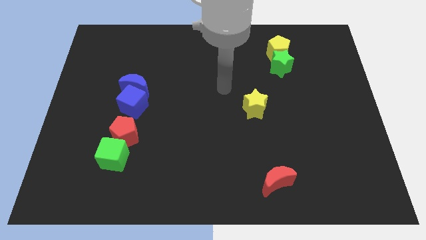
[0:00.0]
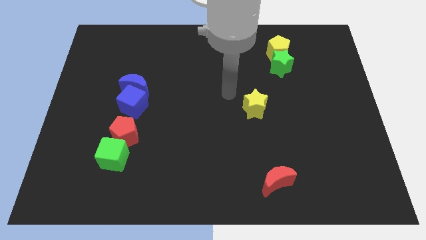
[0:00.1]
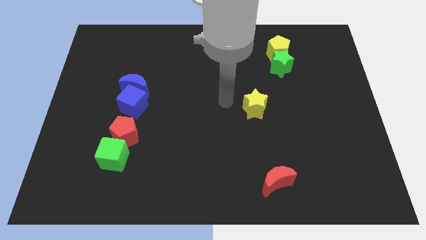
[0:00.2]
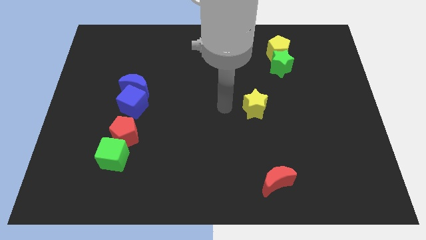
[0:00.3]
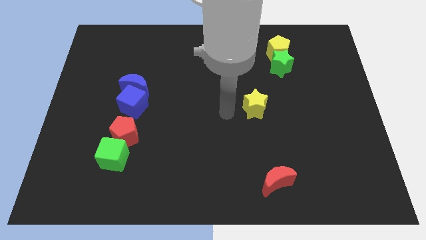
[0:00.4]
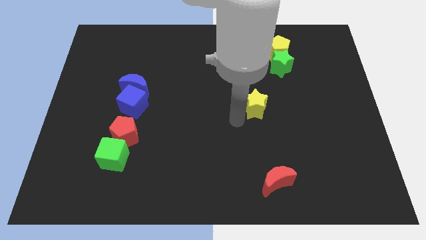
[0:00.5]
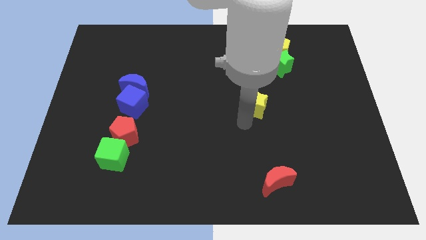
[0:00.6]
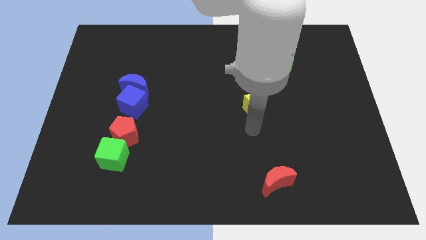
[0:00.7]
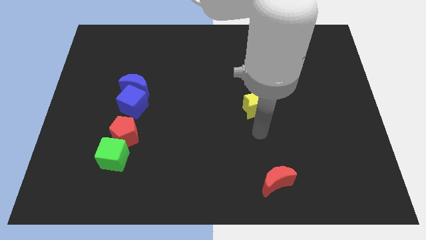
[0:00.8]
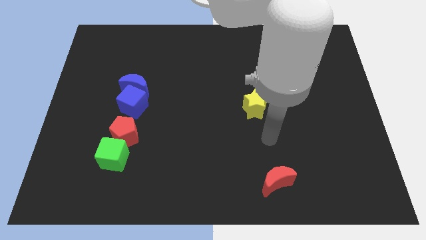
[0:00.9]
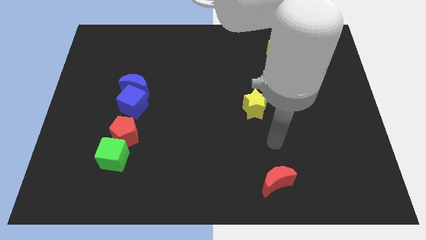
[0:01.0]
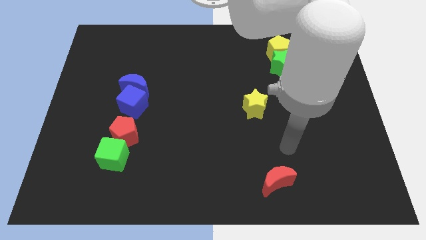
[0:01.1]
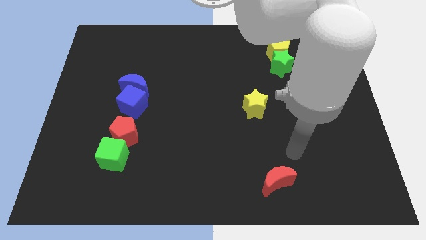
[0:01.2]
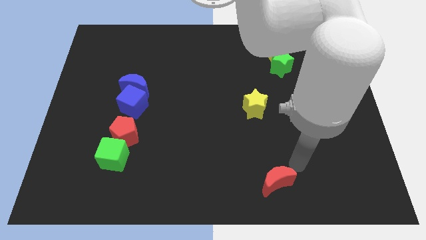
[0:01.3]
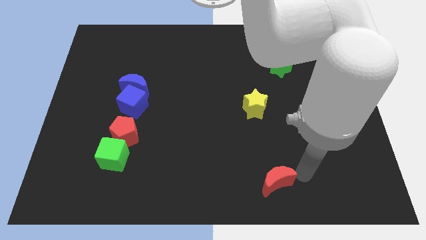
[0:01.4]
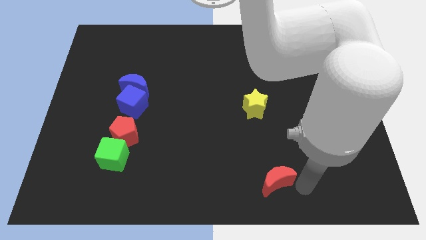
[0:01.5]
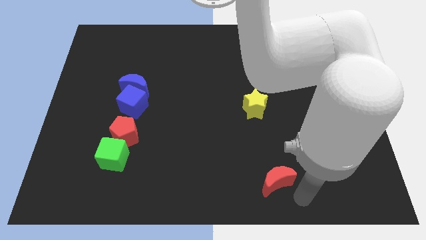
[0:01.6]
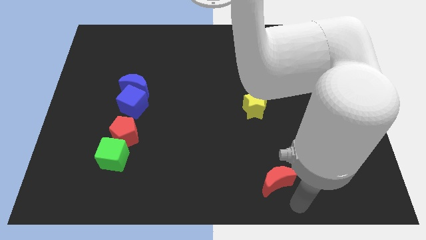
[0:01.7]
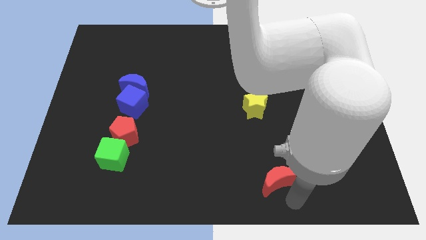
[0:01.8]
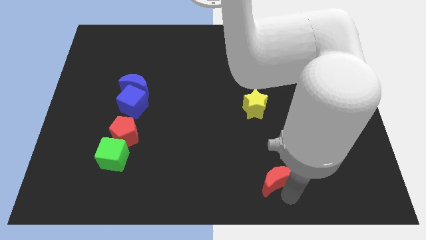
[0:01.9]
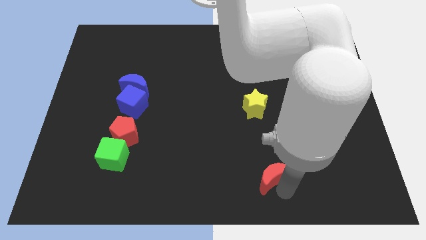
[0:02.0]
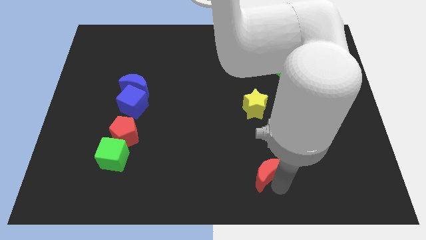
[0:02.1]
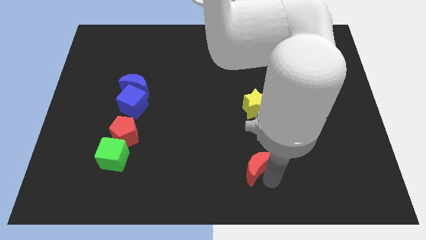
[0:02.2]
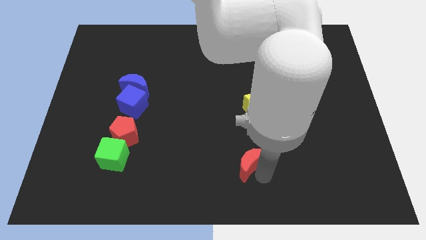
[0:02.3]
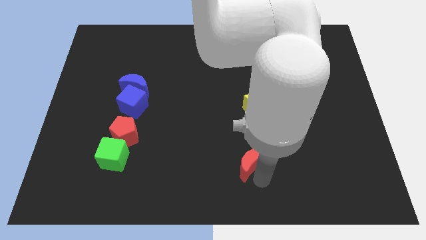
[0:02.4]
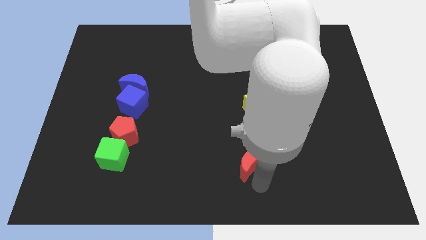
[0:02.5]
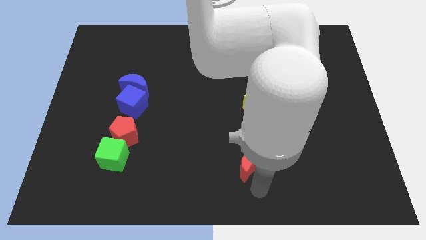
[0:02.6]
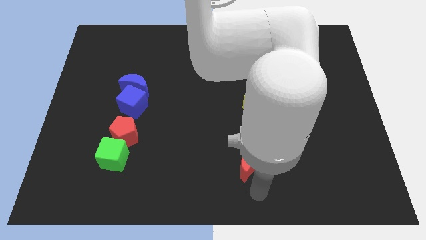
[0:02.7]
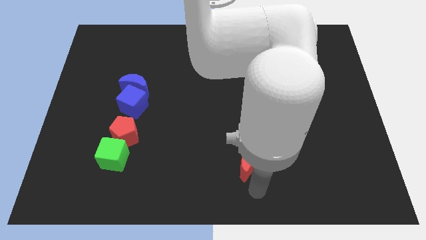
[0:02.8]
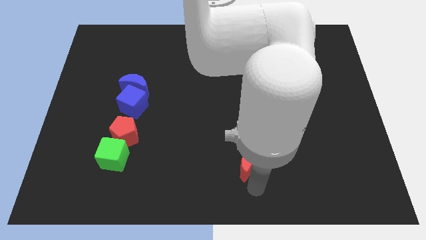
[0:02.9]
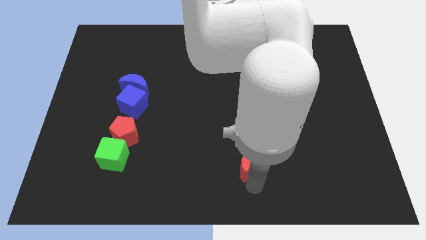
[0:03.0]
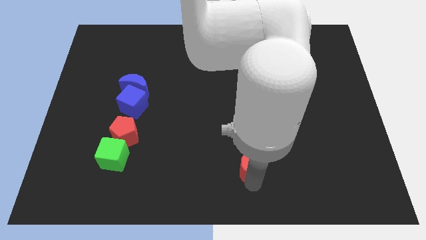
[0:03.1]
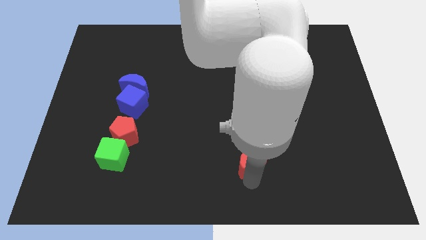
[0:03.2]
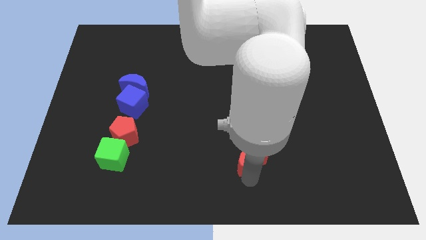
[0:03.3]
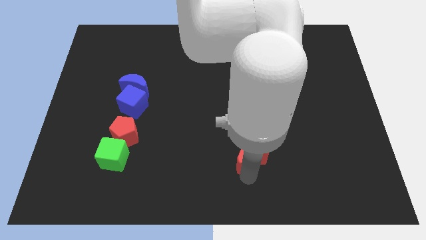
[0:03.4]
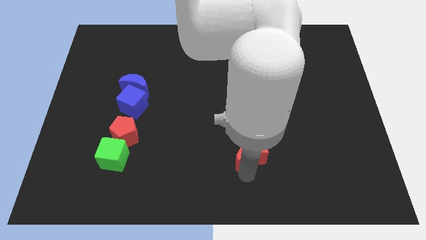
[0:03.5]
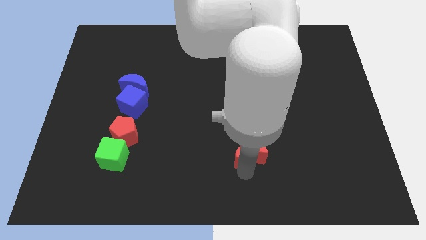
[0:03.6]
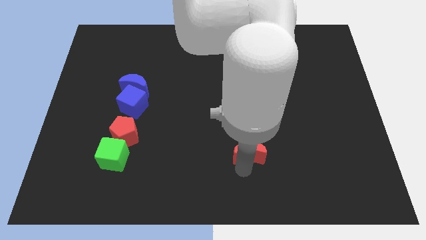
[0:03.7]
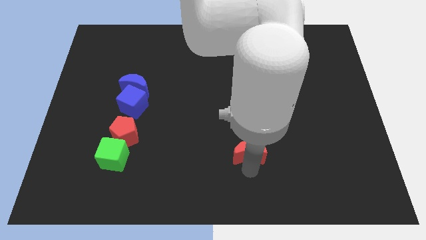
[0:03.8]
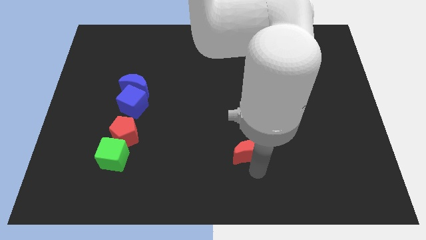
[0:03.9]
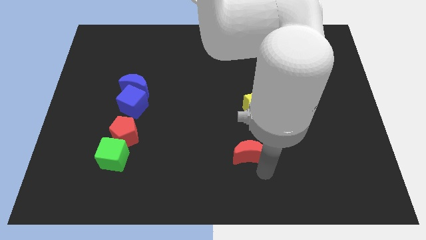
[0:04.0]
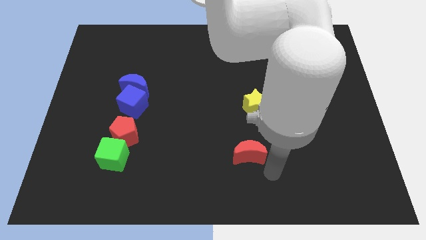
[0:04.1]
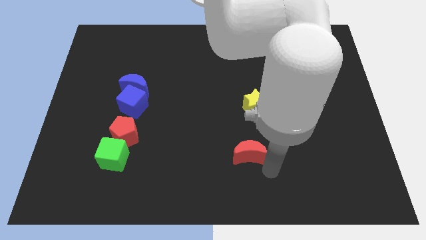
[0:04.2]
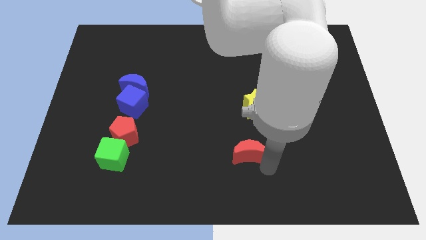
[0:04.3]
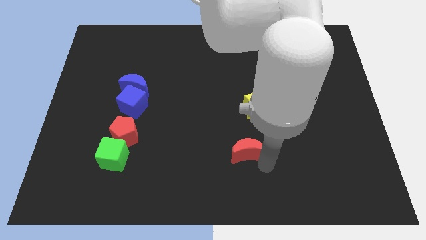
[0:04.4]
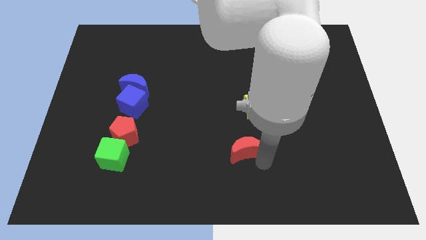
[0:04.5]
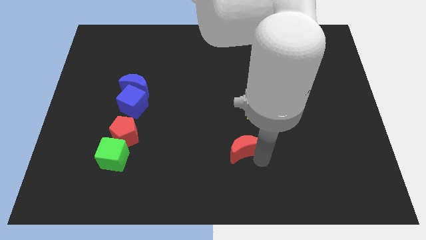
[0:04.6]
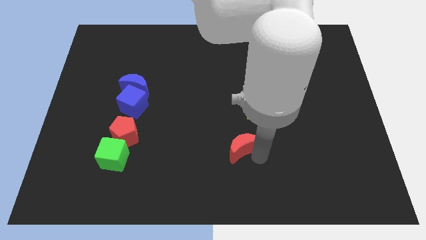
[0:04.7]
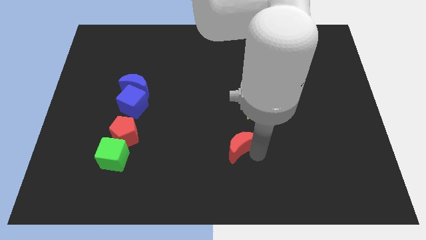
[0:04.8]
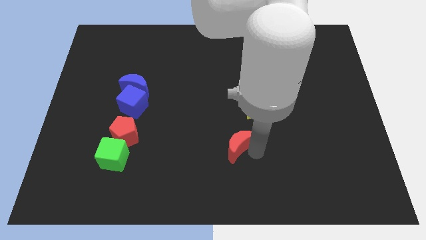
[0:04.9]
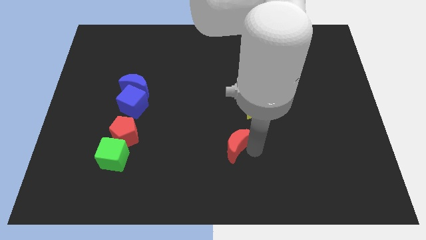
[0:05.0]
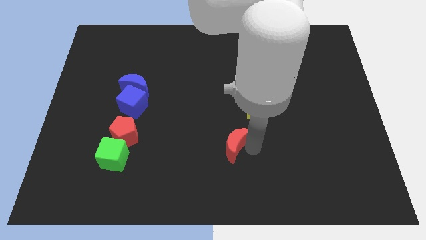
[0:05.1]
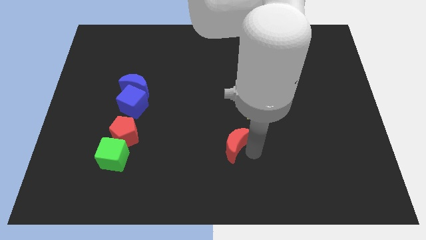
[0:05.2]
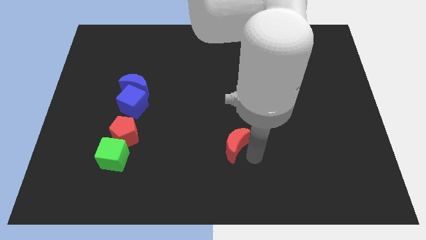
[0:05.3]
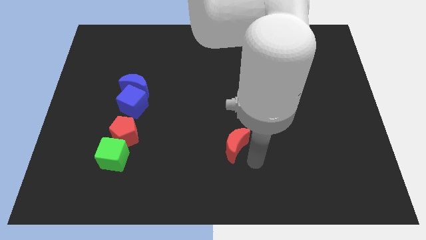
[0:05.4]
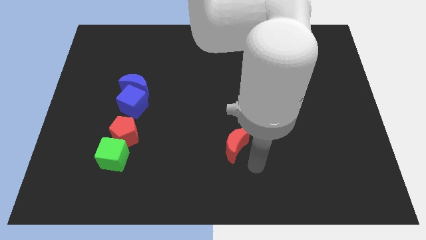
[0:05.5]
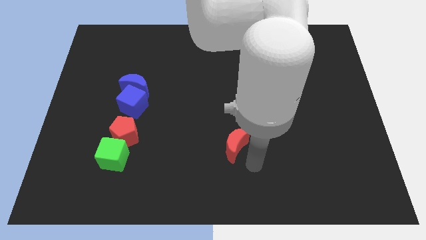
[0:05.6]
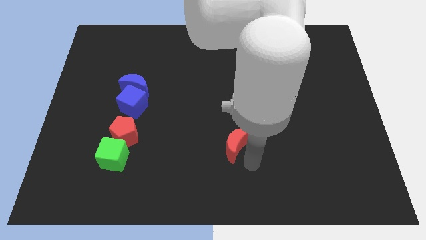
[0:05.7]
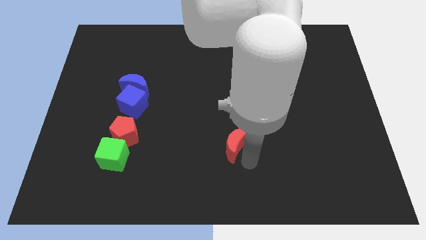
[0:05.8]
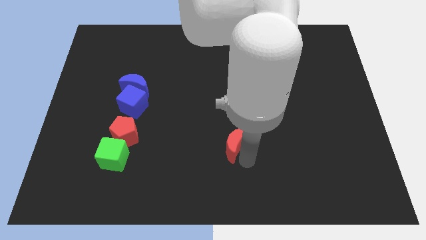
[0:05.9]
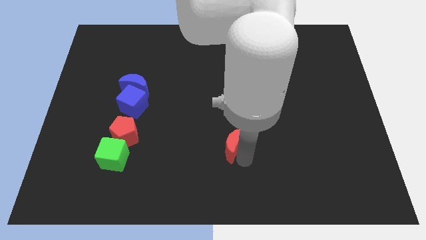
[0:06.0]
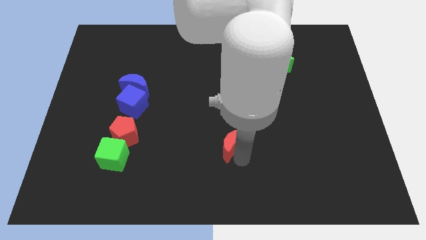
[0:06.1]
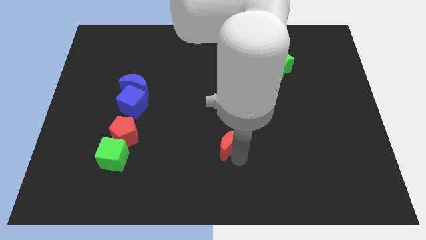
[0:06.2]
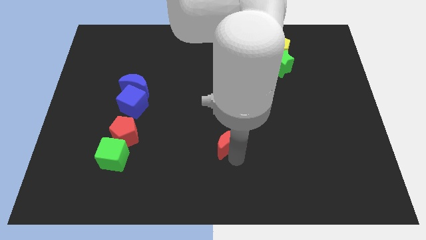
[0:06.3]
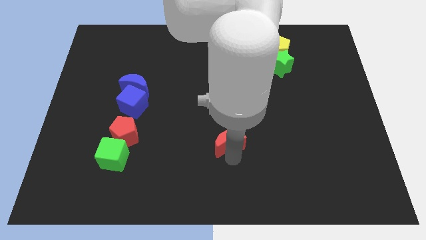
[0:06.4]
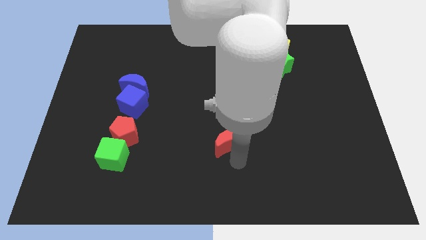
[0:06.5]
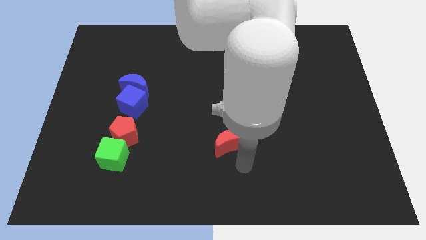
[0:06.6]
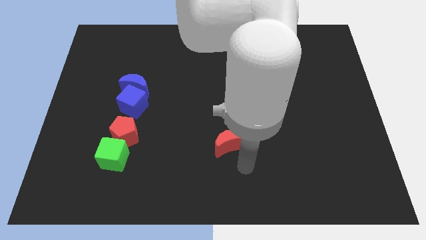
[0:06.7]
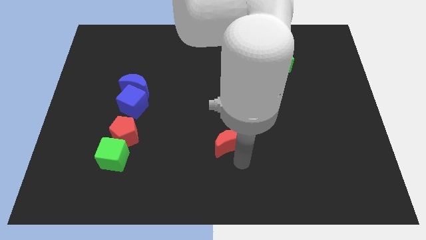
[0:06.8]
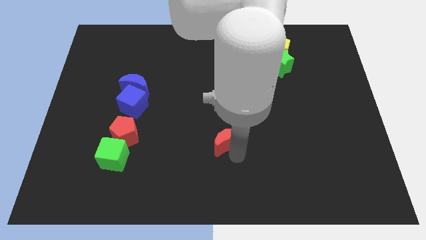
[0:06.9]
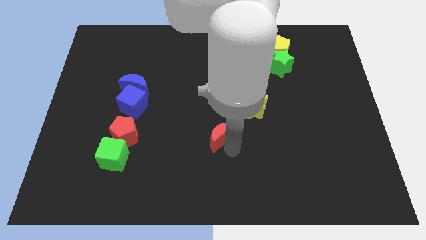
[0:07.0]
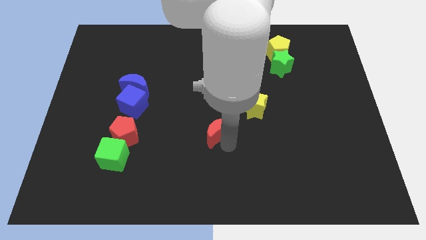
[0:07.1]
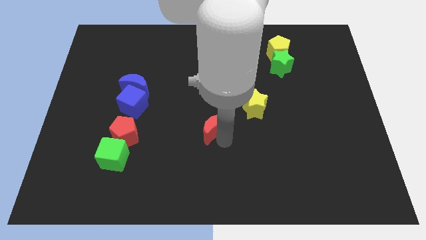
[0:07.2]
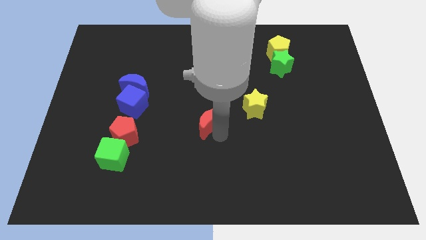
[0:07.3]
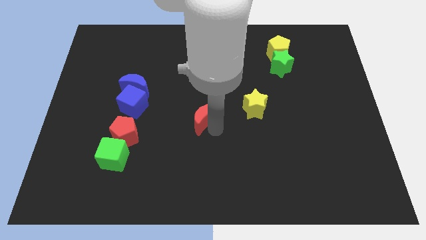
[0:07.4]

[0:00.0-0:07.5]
move the red moon up and then left

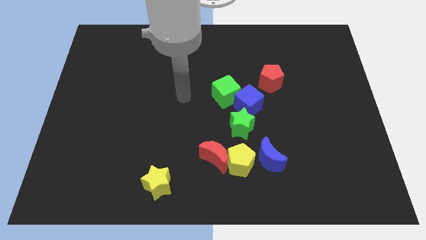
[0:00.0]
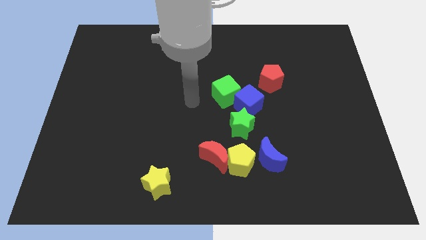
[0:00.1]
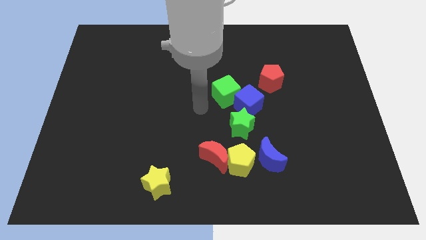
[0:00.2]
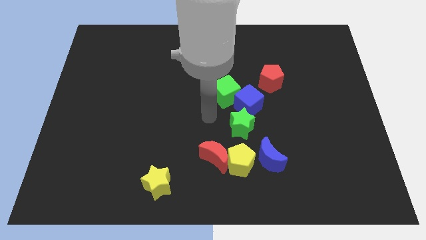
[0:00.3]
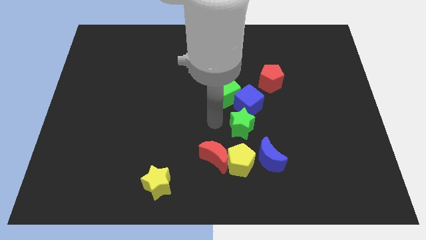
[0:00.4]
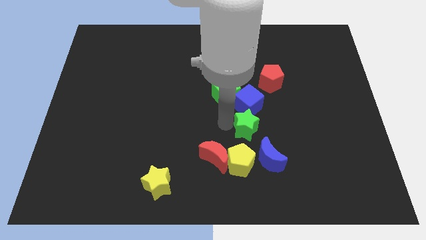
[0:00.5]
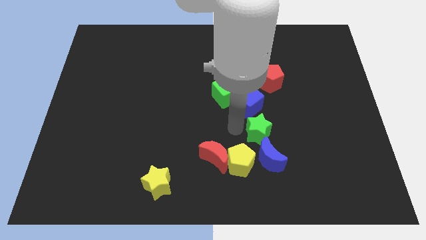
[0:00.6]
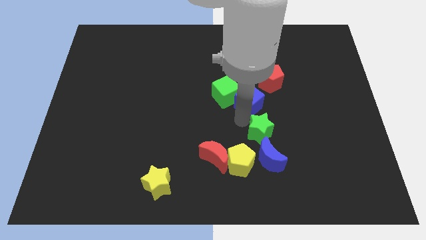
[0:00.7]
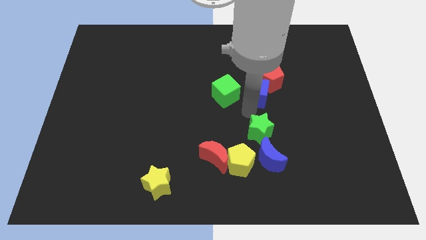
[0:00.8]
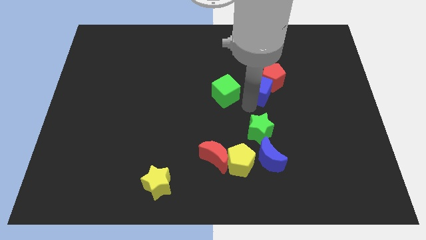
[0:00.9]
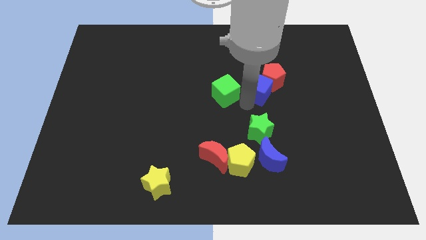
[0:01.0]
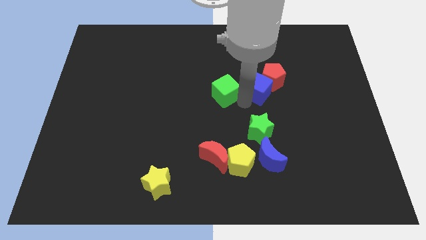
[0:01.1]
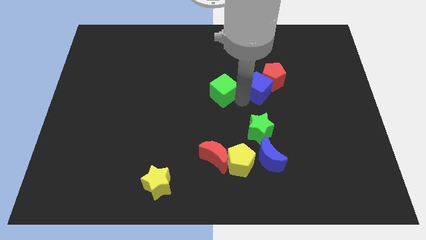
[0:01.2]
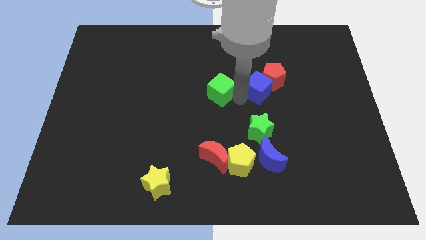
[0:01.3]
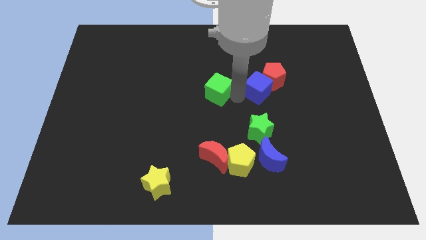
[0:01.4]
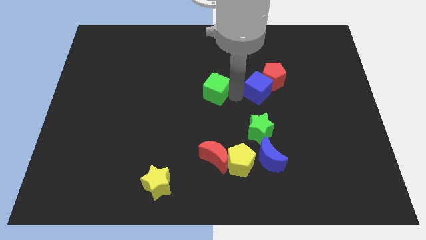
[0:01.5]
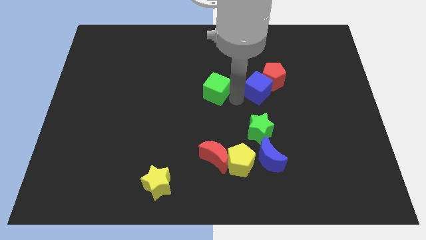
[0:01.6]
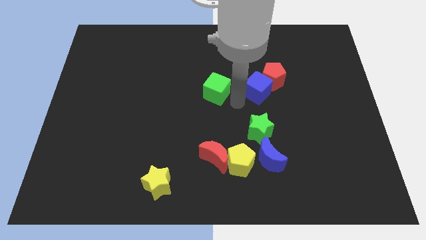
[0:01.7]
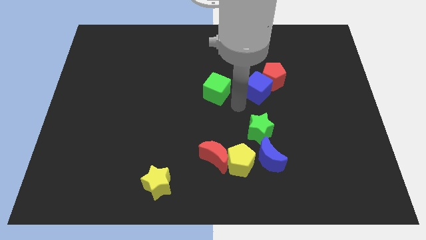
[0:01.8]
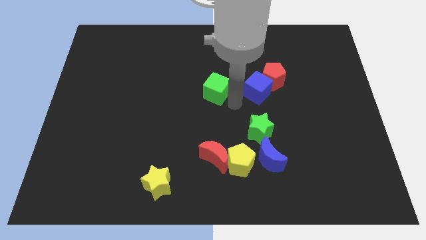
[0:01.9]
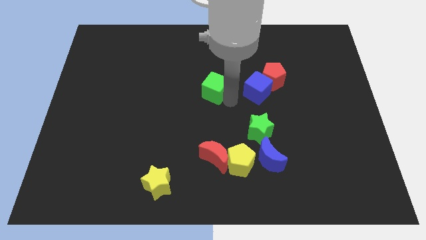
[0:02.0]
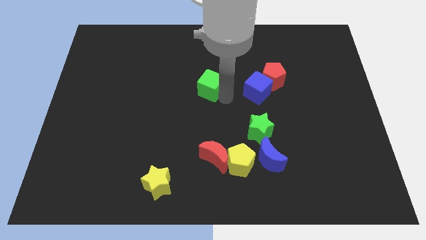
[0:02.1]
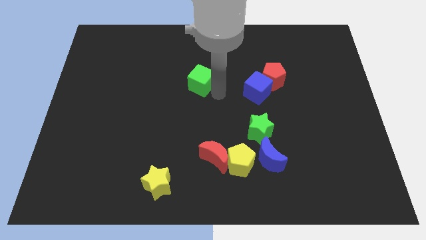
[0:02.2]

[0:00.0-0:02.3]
slide the green cube somewhat diagonally upwards and left
